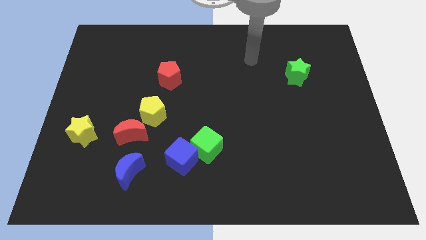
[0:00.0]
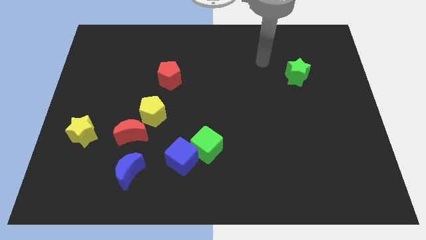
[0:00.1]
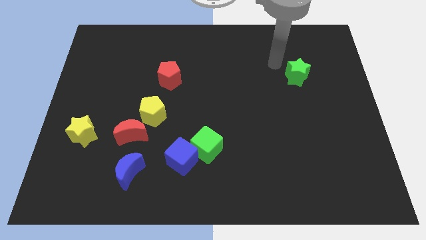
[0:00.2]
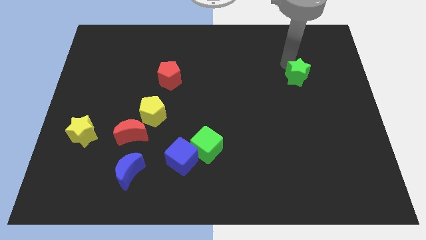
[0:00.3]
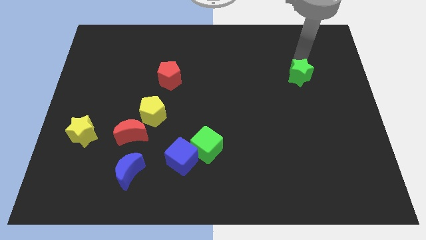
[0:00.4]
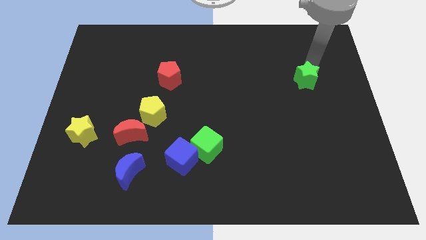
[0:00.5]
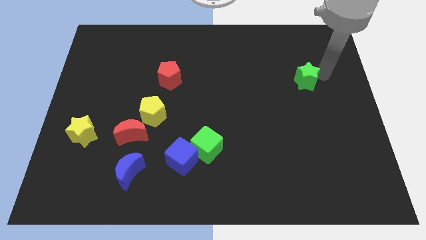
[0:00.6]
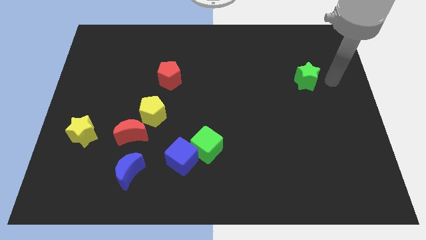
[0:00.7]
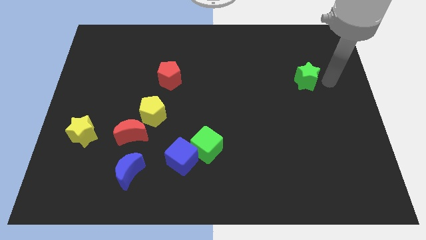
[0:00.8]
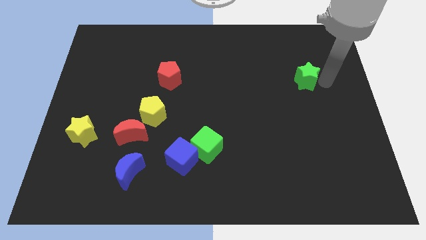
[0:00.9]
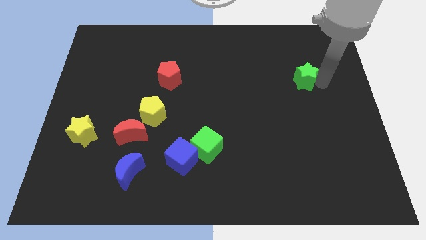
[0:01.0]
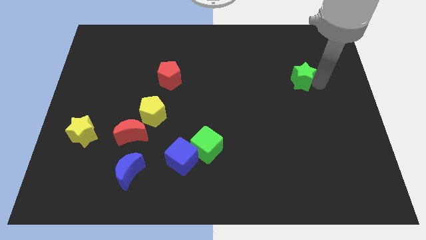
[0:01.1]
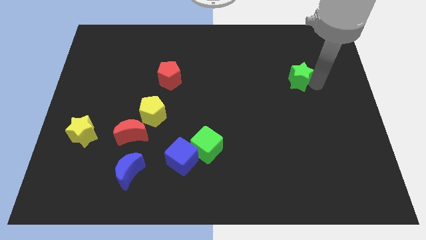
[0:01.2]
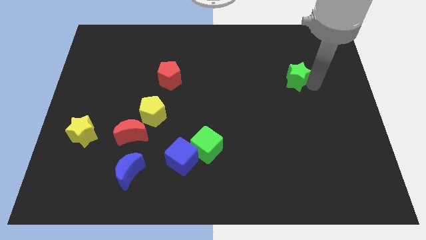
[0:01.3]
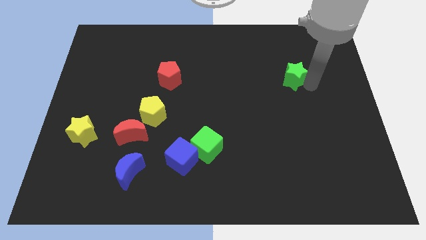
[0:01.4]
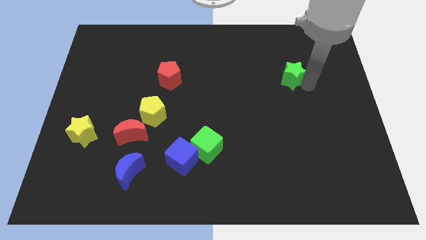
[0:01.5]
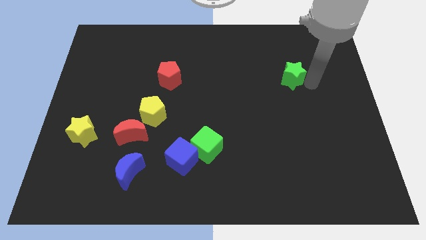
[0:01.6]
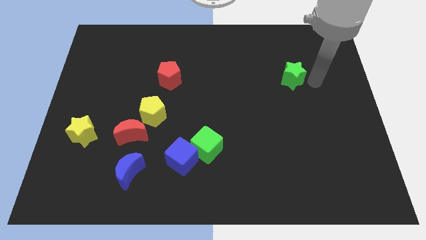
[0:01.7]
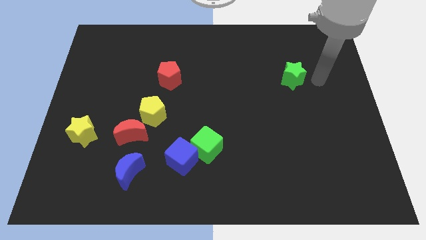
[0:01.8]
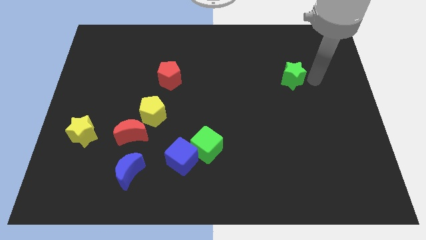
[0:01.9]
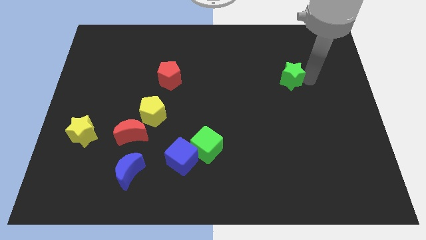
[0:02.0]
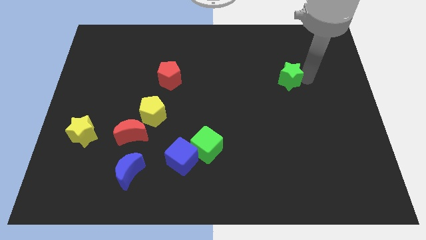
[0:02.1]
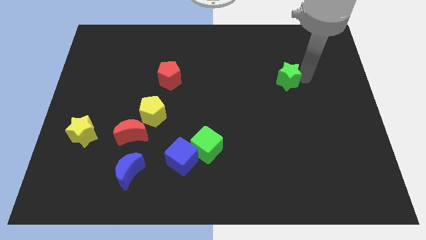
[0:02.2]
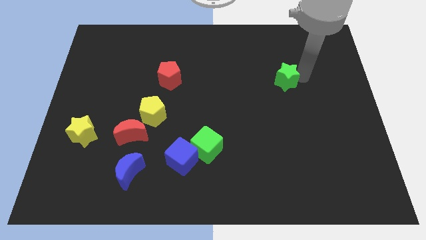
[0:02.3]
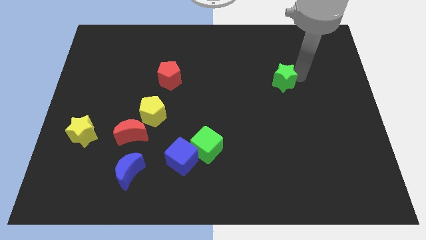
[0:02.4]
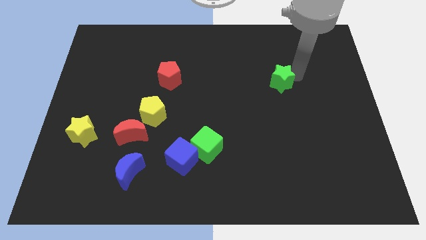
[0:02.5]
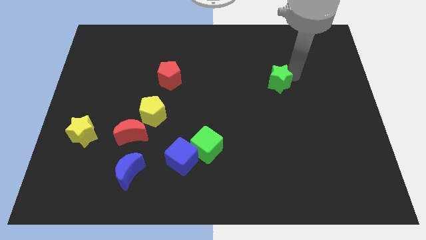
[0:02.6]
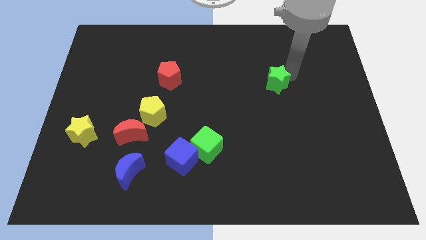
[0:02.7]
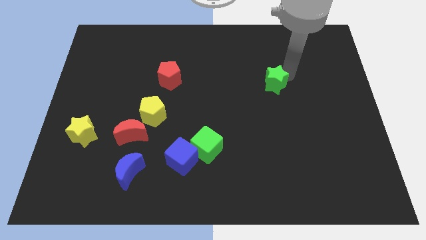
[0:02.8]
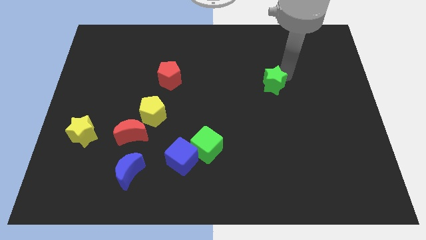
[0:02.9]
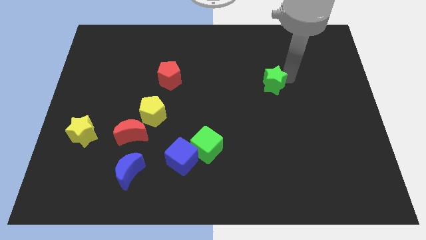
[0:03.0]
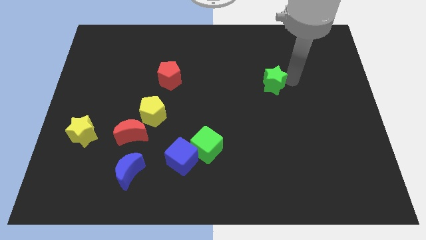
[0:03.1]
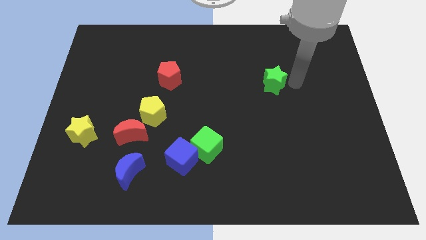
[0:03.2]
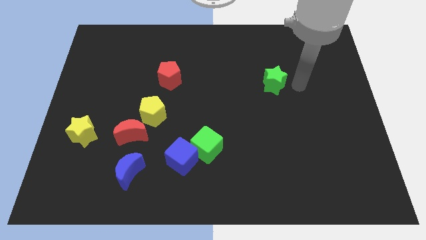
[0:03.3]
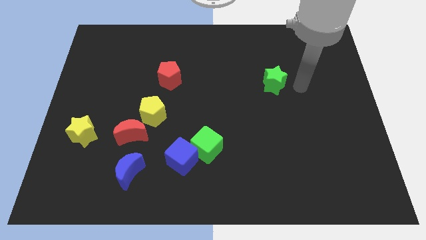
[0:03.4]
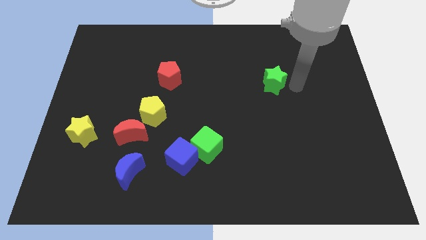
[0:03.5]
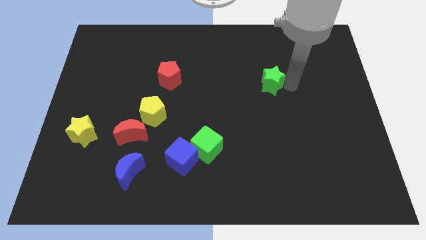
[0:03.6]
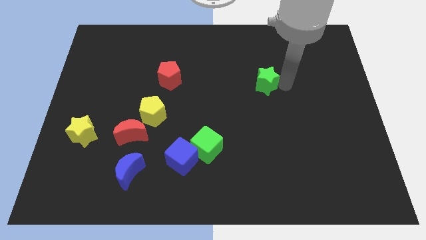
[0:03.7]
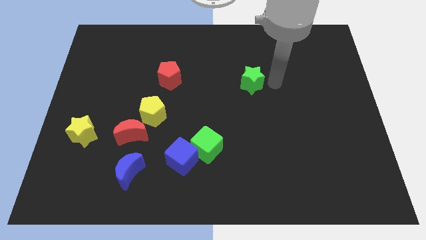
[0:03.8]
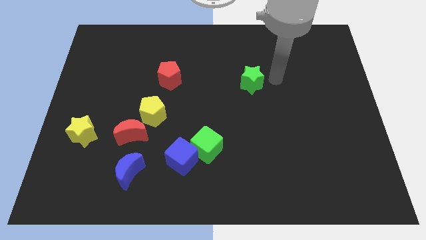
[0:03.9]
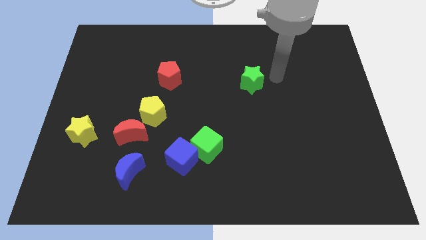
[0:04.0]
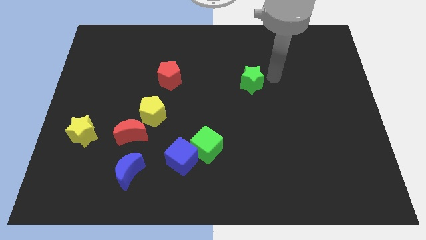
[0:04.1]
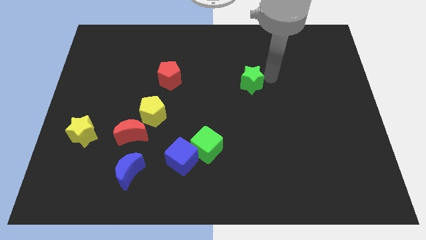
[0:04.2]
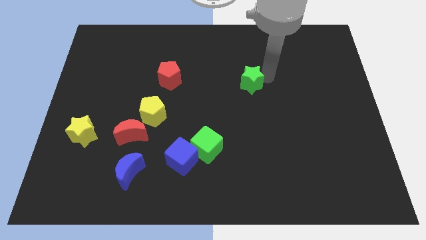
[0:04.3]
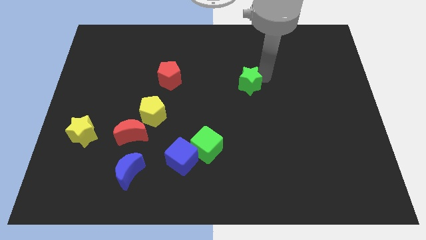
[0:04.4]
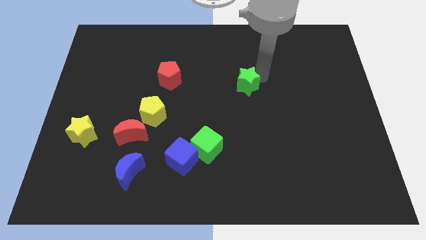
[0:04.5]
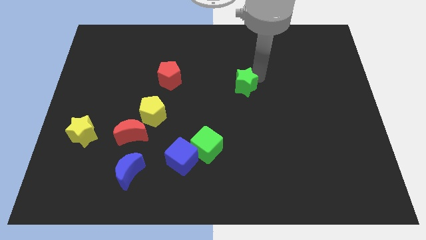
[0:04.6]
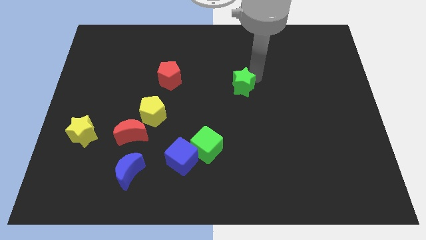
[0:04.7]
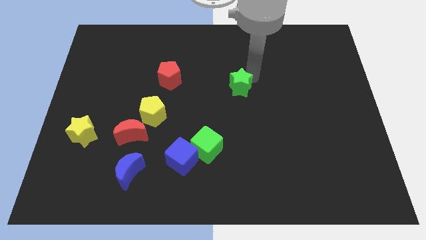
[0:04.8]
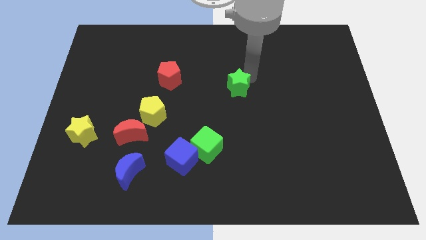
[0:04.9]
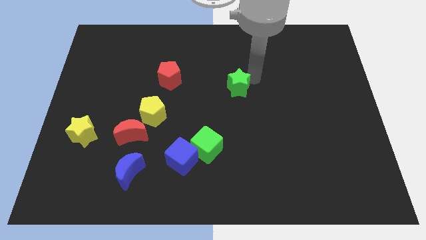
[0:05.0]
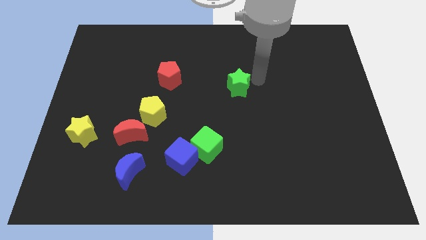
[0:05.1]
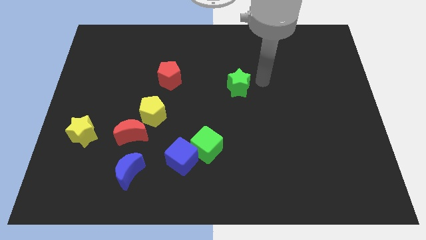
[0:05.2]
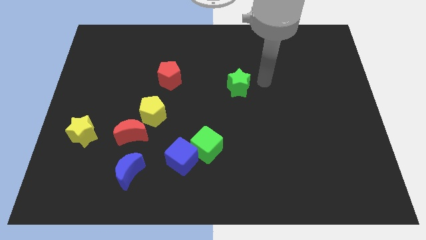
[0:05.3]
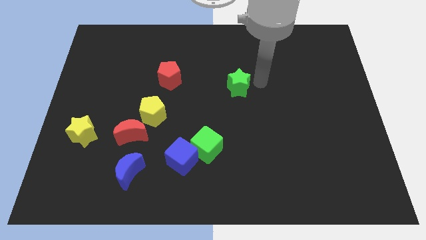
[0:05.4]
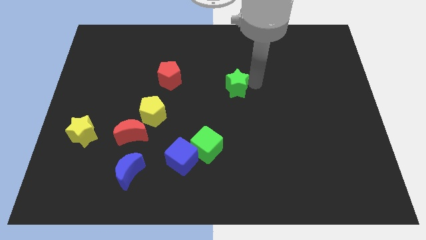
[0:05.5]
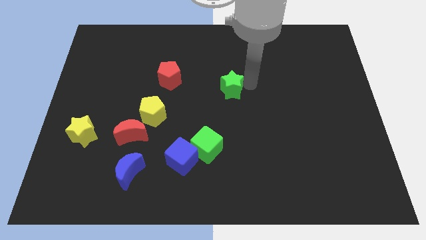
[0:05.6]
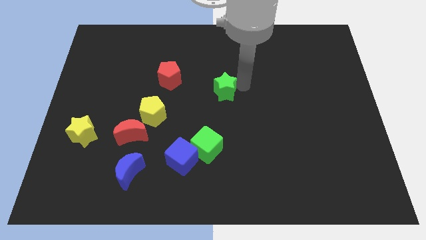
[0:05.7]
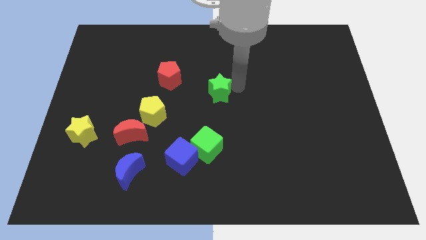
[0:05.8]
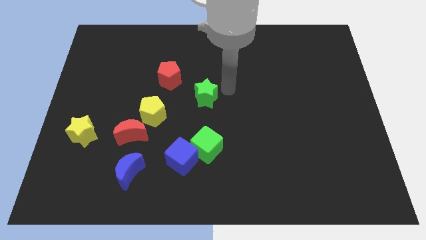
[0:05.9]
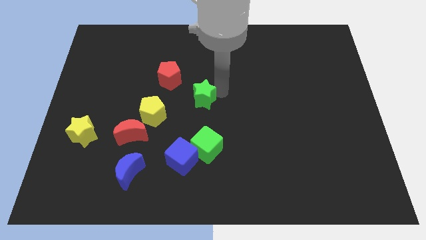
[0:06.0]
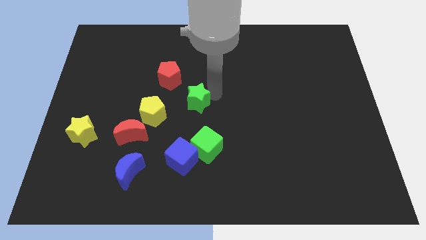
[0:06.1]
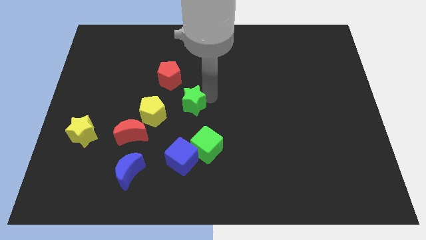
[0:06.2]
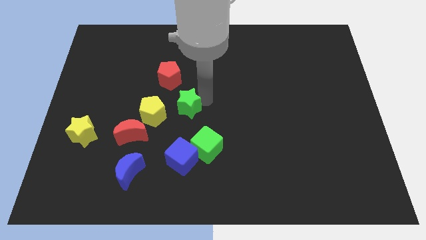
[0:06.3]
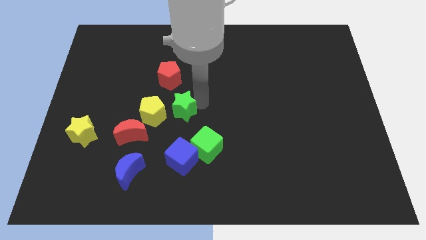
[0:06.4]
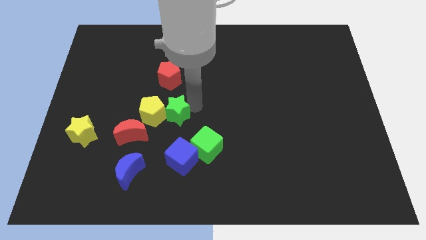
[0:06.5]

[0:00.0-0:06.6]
push the green star towards the yellow pentagon

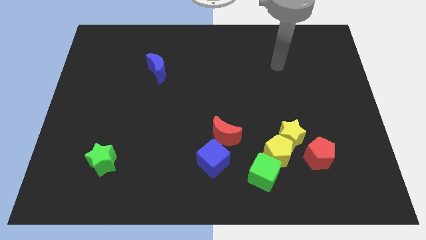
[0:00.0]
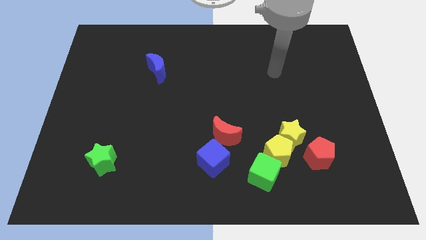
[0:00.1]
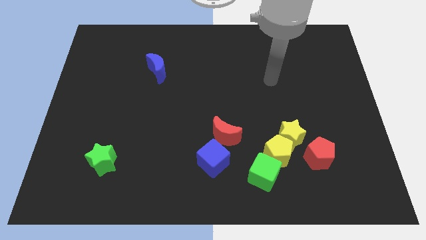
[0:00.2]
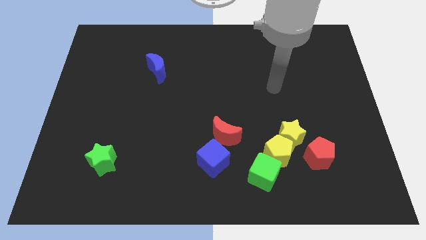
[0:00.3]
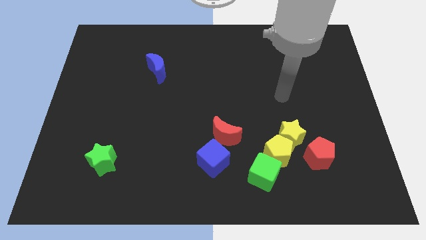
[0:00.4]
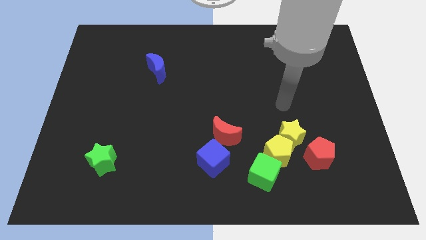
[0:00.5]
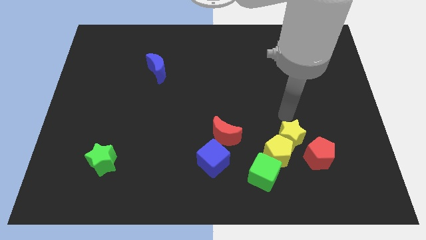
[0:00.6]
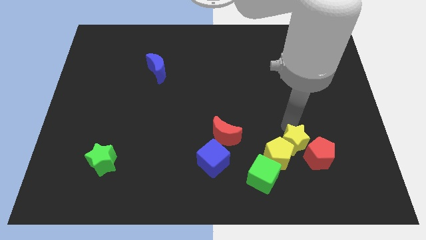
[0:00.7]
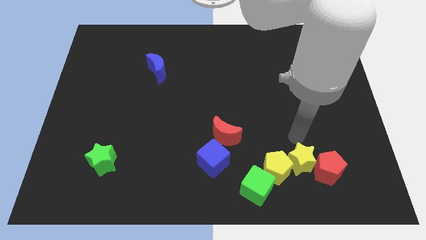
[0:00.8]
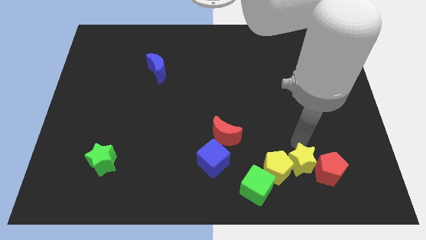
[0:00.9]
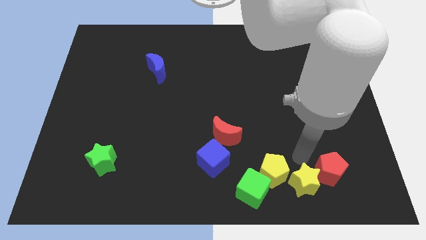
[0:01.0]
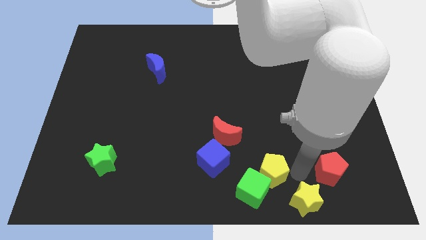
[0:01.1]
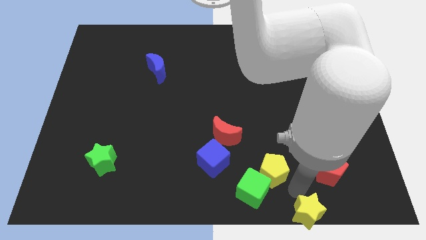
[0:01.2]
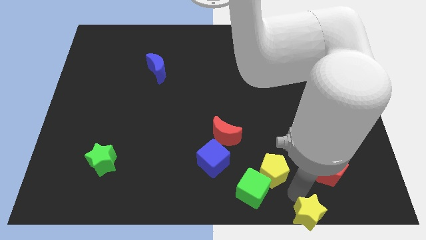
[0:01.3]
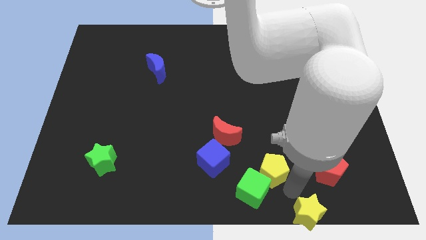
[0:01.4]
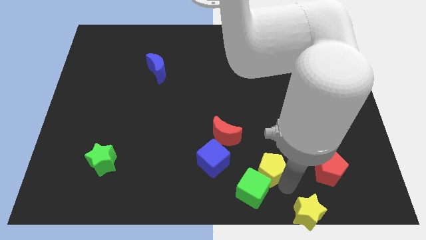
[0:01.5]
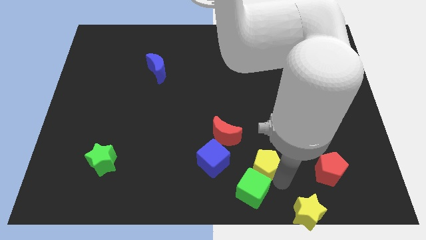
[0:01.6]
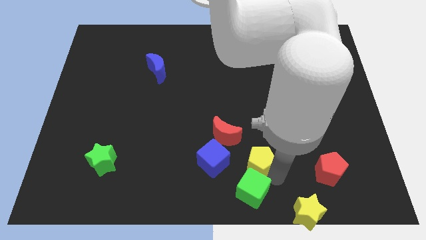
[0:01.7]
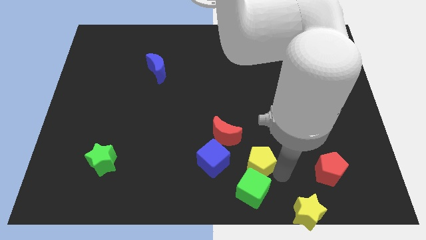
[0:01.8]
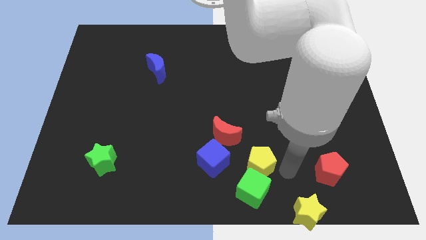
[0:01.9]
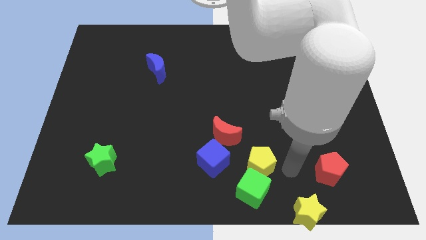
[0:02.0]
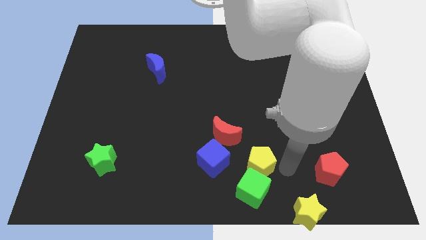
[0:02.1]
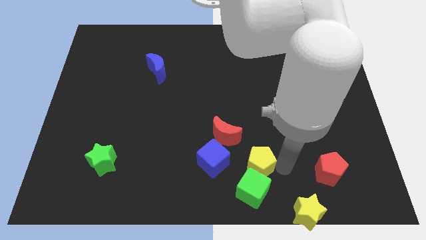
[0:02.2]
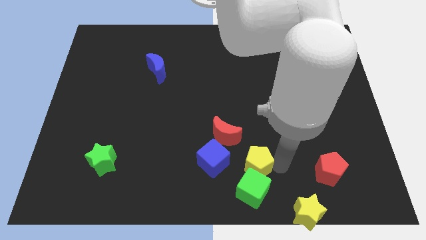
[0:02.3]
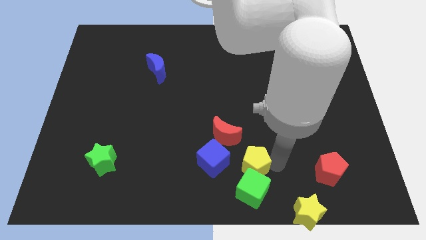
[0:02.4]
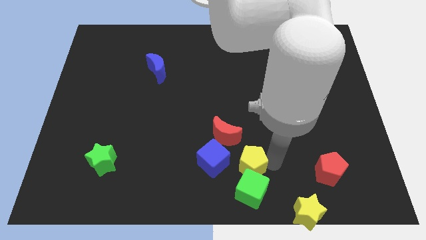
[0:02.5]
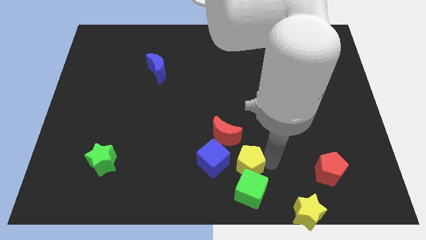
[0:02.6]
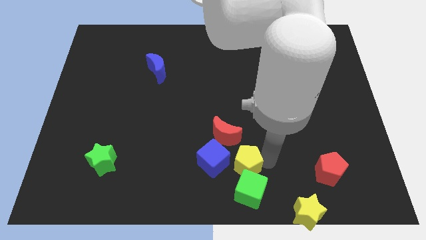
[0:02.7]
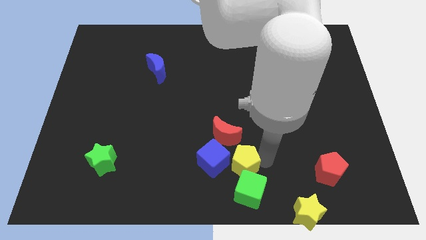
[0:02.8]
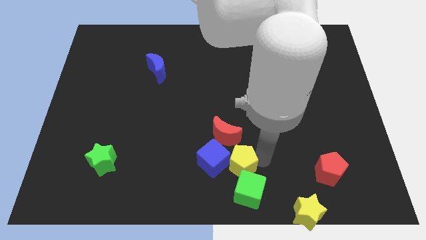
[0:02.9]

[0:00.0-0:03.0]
move the yellow pentagon next to the blue cube
